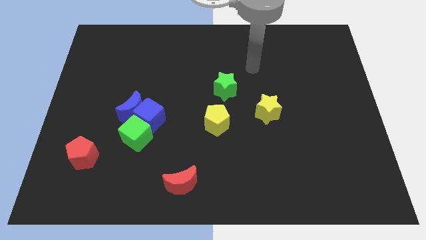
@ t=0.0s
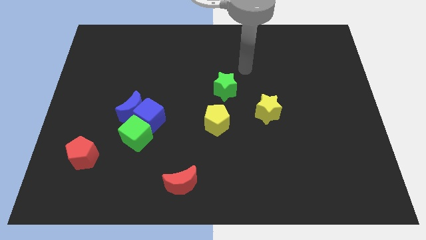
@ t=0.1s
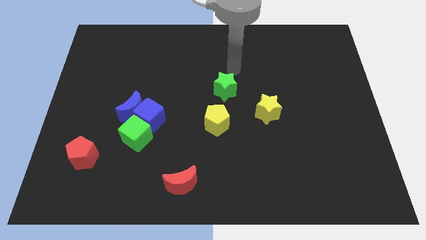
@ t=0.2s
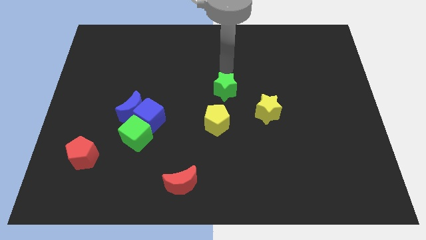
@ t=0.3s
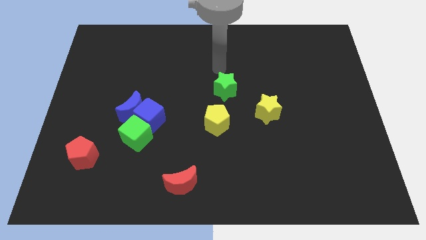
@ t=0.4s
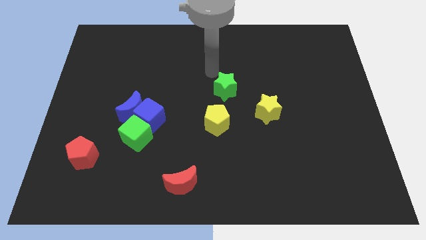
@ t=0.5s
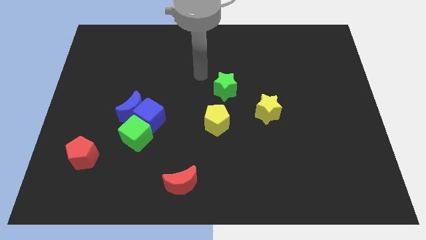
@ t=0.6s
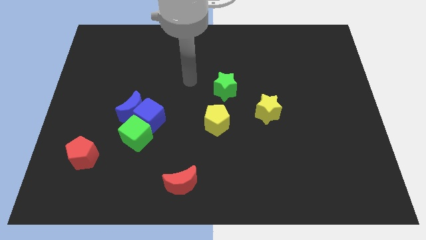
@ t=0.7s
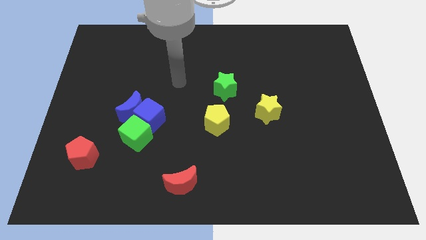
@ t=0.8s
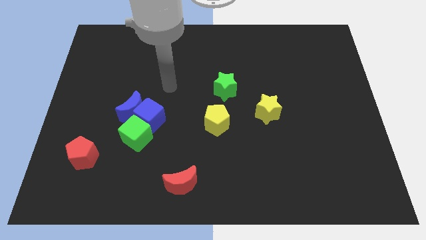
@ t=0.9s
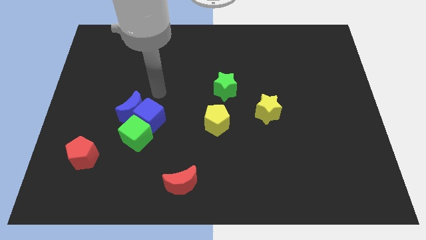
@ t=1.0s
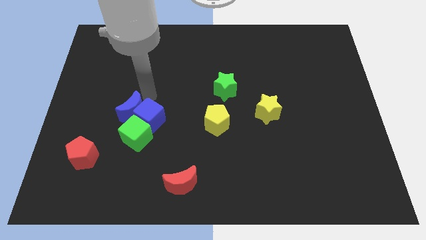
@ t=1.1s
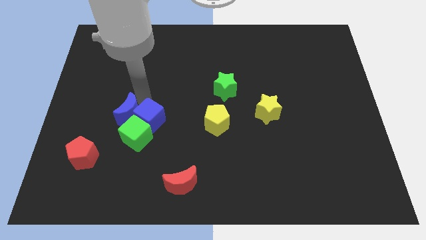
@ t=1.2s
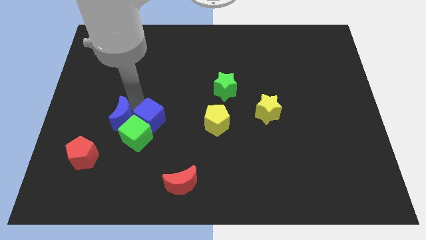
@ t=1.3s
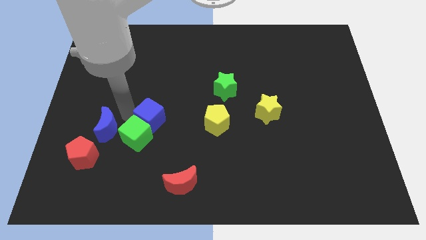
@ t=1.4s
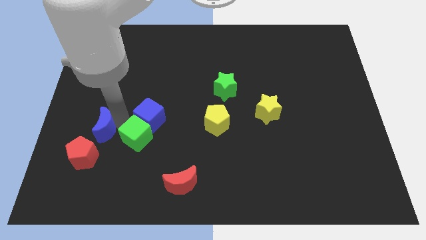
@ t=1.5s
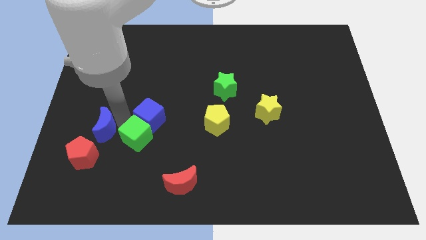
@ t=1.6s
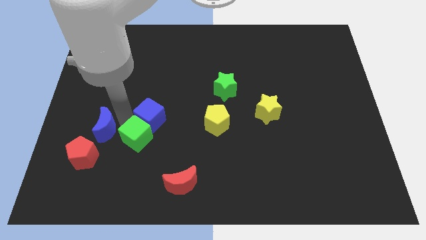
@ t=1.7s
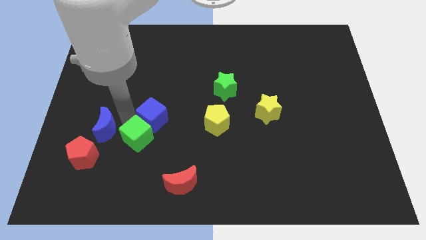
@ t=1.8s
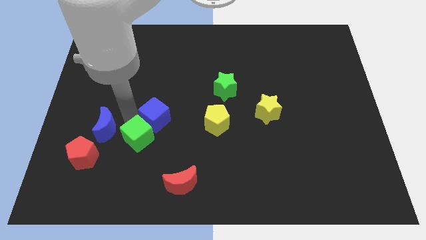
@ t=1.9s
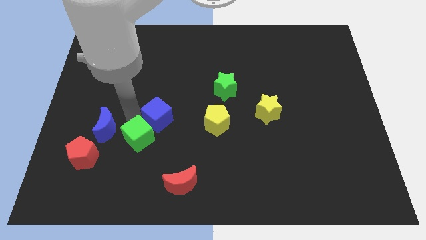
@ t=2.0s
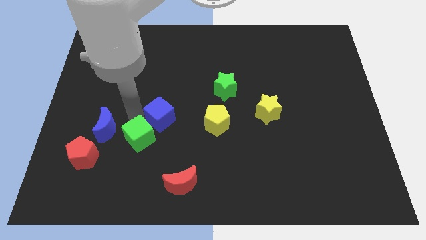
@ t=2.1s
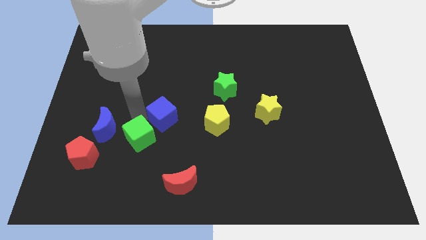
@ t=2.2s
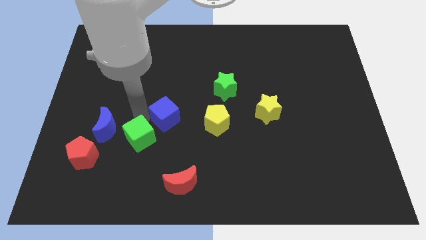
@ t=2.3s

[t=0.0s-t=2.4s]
move the blue cube away from the blue moon and green cube

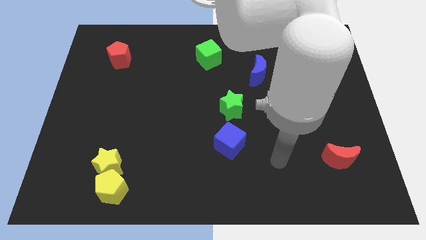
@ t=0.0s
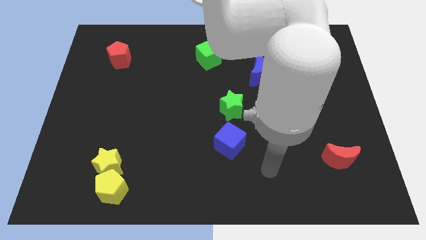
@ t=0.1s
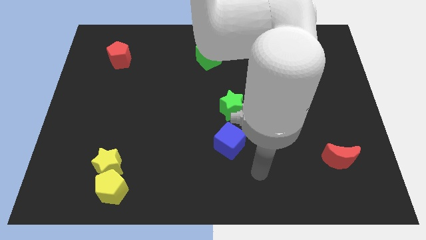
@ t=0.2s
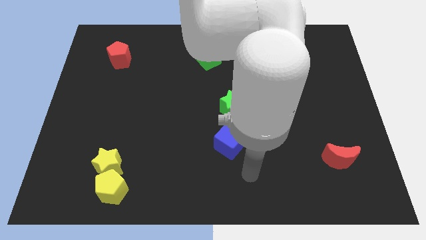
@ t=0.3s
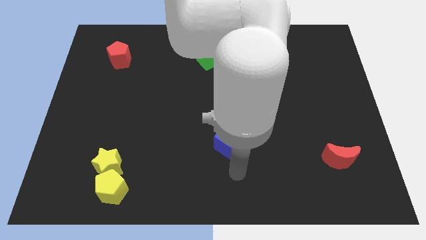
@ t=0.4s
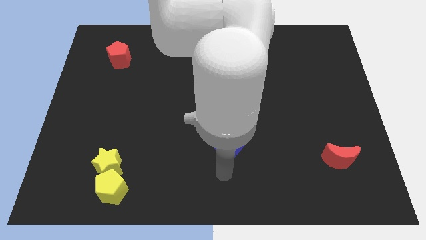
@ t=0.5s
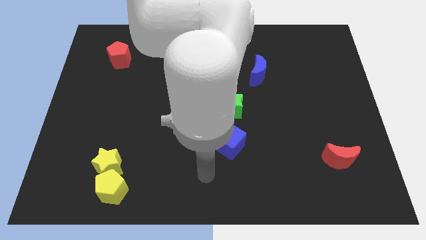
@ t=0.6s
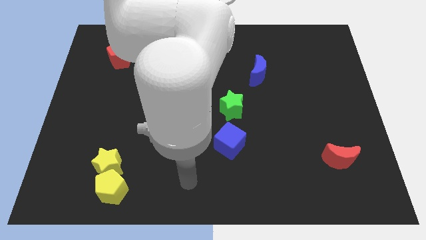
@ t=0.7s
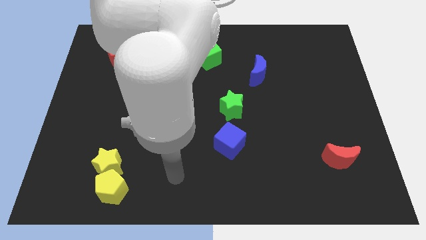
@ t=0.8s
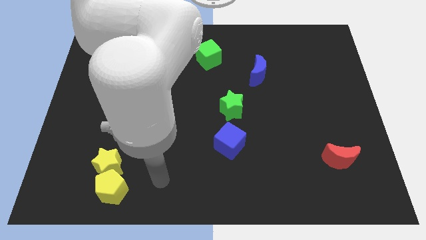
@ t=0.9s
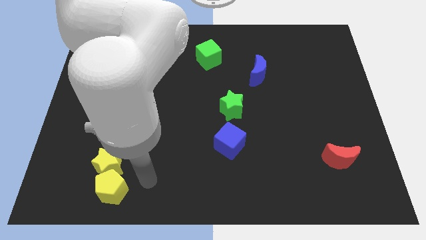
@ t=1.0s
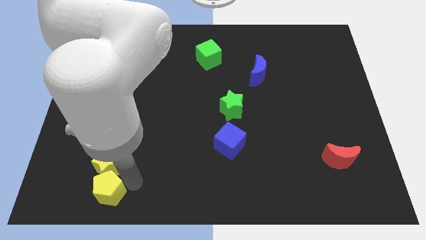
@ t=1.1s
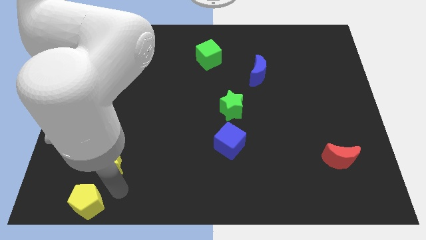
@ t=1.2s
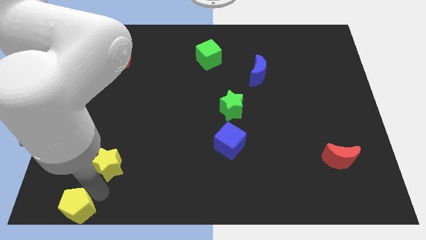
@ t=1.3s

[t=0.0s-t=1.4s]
pull the yellow star apart from the yellow pentagon

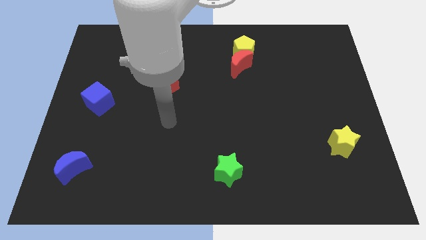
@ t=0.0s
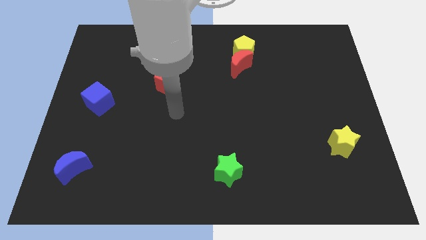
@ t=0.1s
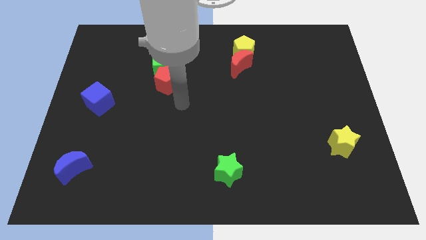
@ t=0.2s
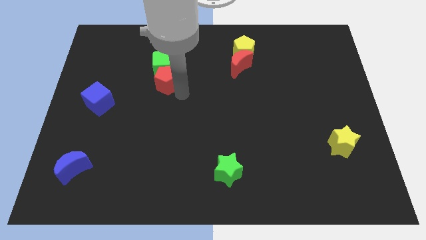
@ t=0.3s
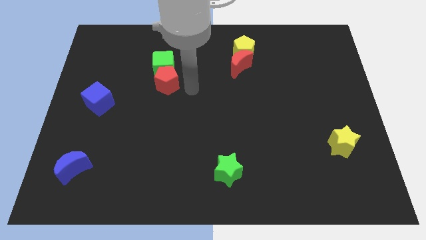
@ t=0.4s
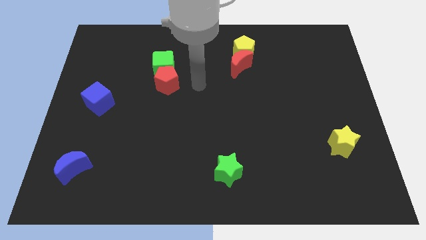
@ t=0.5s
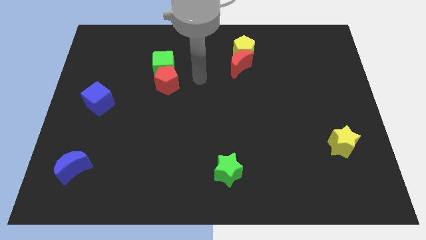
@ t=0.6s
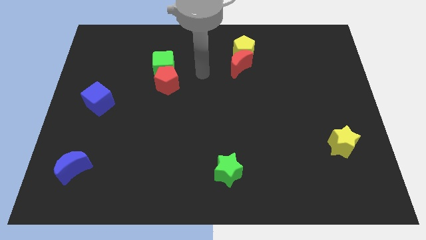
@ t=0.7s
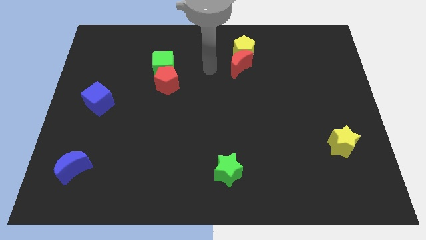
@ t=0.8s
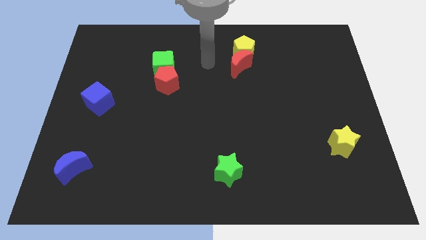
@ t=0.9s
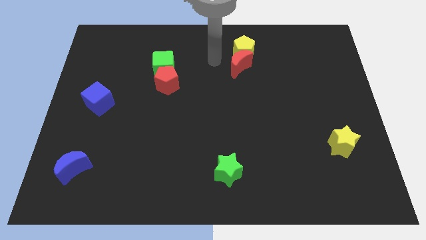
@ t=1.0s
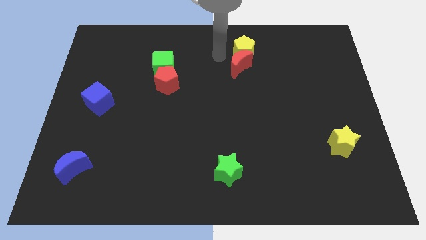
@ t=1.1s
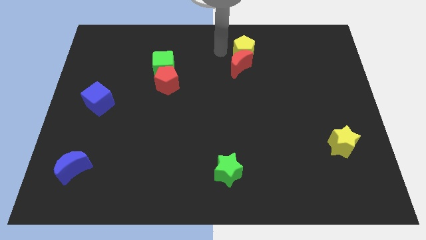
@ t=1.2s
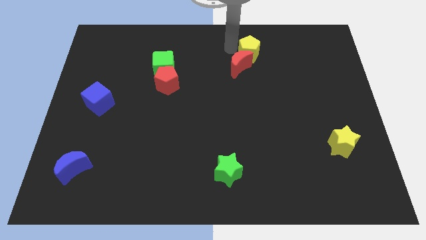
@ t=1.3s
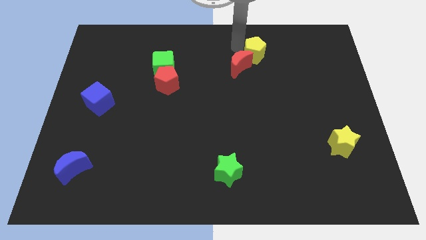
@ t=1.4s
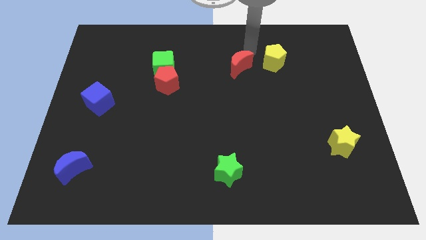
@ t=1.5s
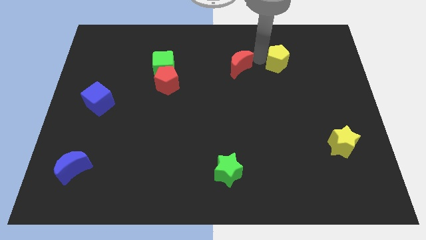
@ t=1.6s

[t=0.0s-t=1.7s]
pull the red moon apart from the yellow pentagon

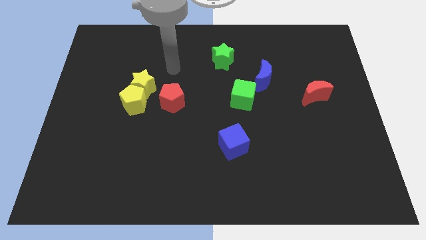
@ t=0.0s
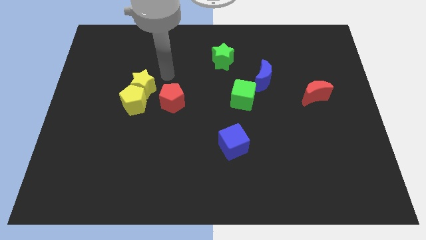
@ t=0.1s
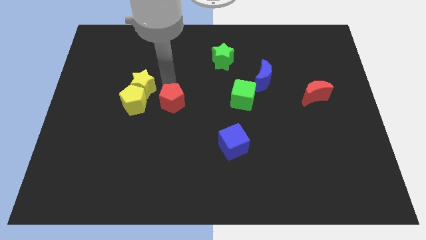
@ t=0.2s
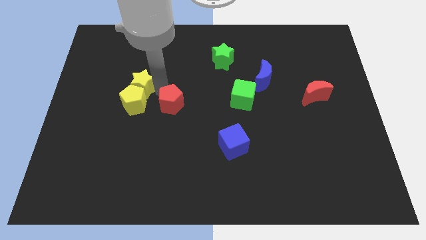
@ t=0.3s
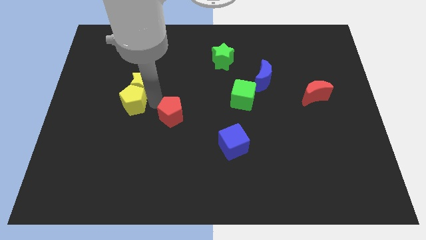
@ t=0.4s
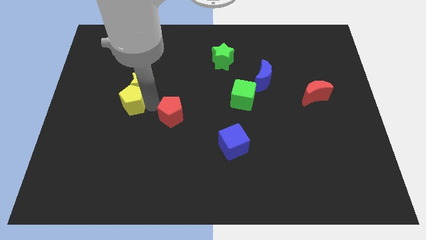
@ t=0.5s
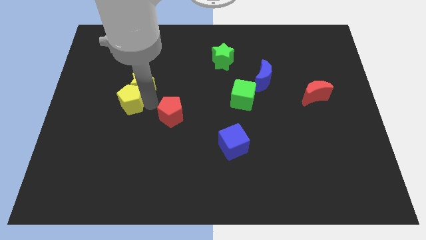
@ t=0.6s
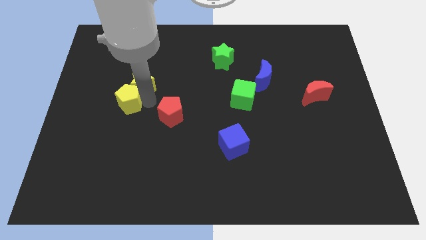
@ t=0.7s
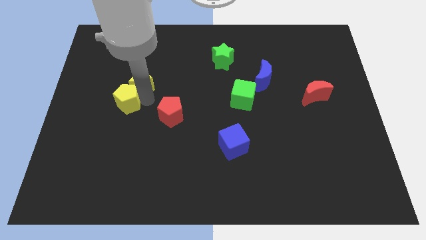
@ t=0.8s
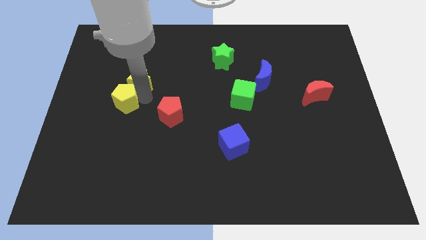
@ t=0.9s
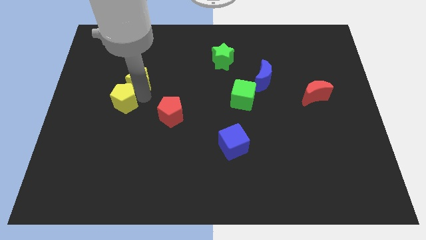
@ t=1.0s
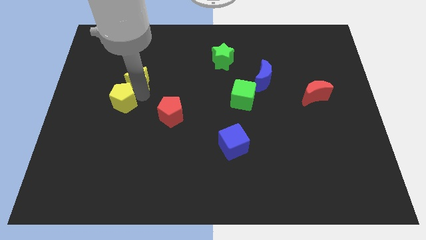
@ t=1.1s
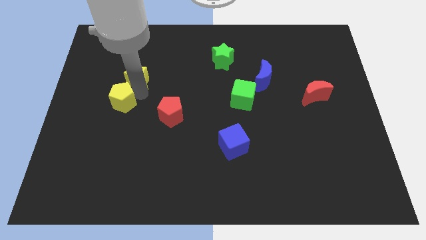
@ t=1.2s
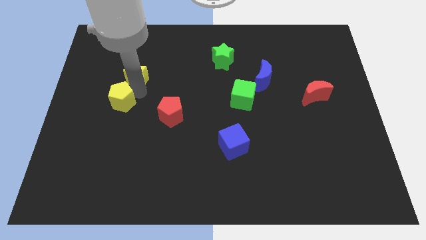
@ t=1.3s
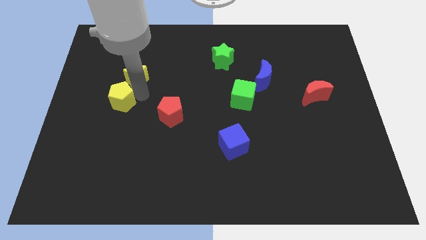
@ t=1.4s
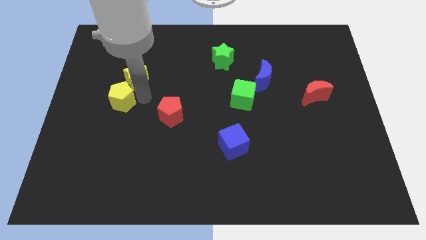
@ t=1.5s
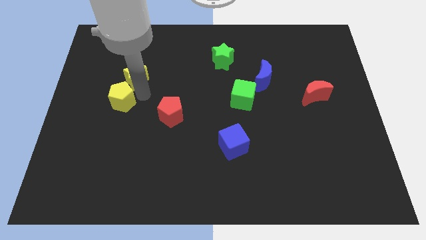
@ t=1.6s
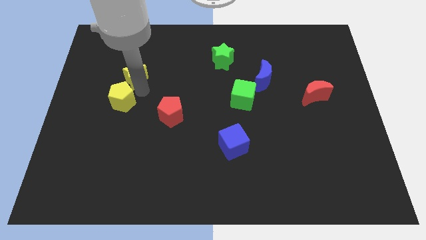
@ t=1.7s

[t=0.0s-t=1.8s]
move the yellow star away from the yellow pentagon and red pentagon

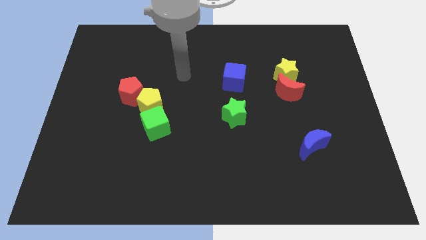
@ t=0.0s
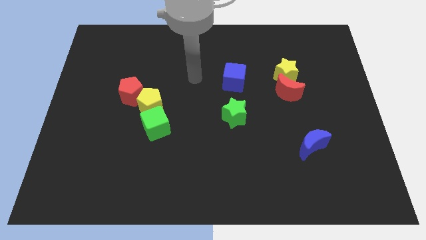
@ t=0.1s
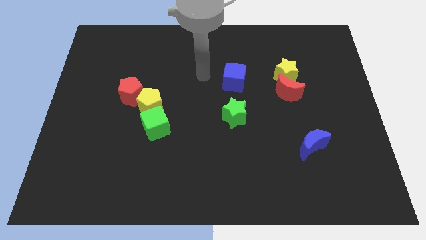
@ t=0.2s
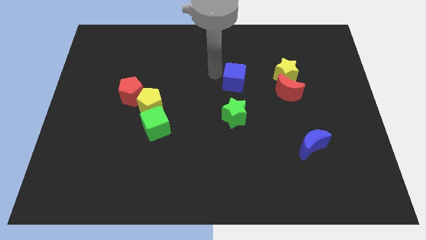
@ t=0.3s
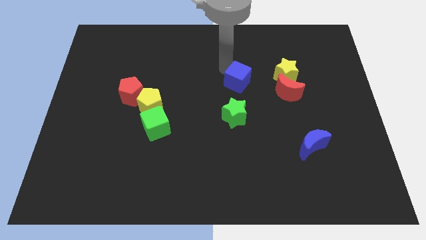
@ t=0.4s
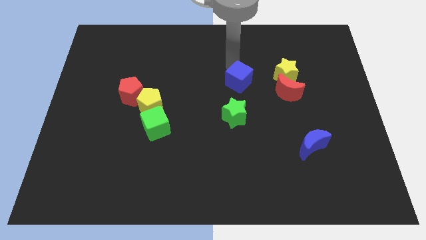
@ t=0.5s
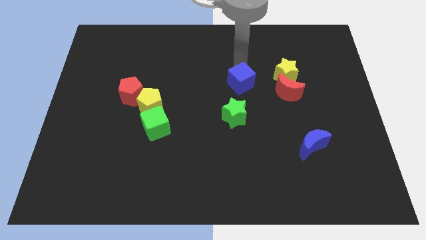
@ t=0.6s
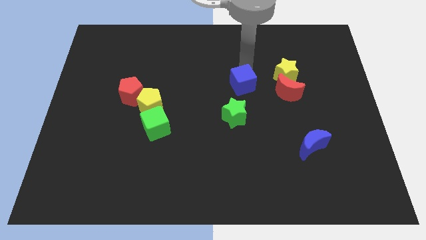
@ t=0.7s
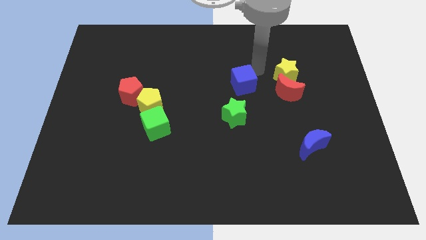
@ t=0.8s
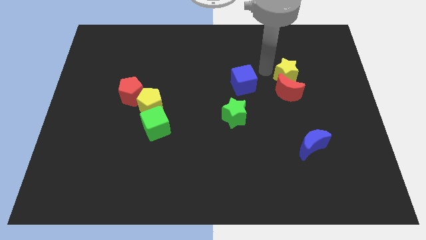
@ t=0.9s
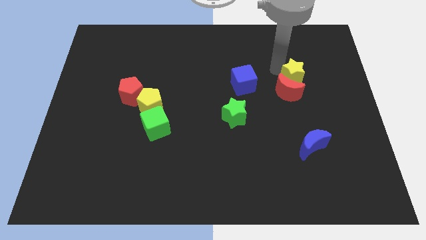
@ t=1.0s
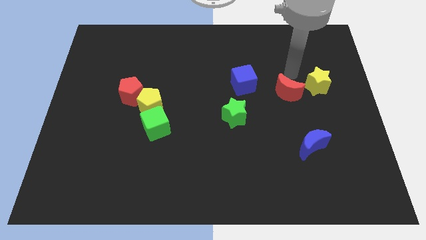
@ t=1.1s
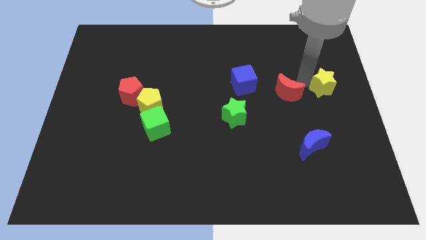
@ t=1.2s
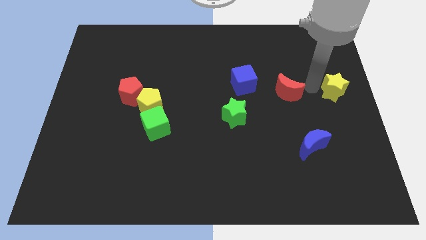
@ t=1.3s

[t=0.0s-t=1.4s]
pull the red moon apart from the yellow star

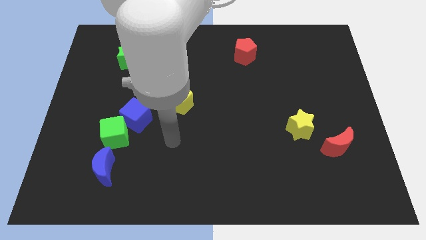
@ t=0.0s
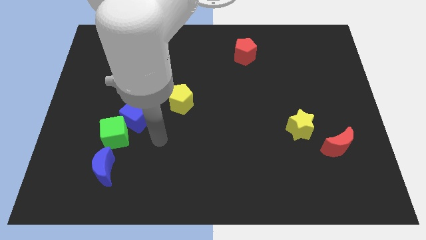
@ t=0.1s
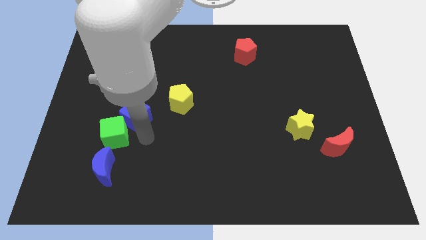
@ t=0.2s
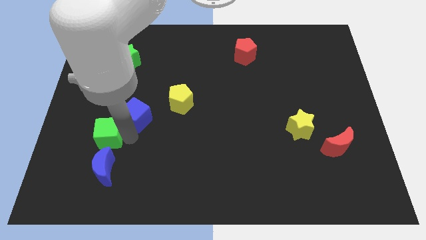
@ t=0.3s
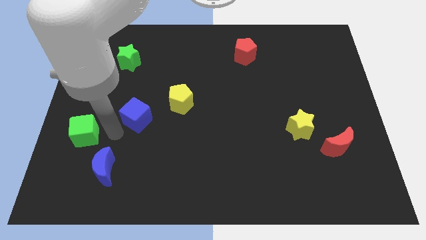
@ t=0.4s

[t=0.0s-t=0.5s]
separate the blue cube from the green cube
